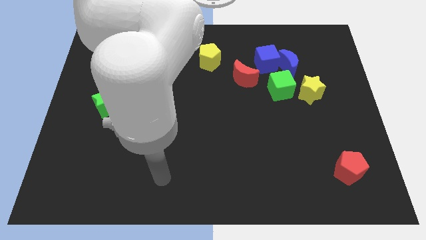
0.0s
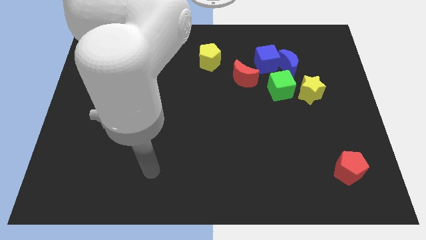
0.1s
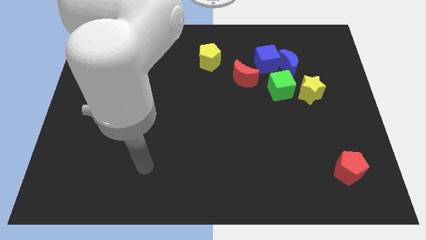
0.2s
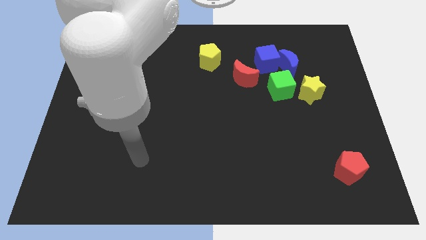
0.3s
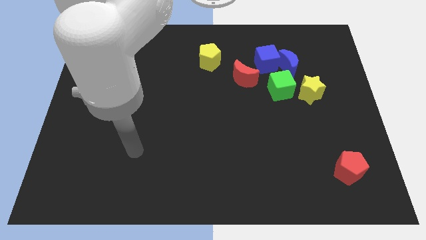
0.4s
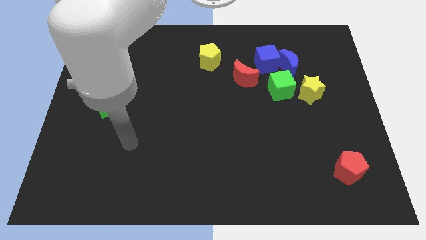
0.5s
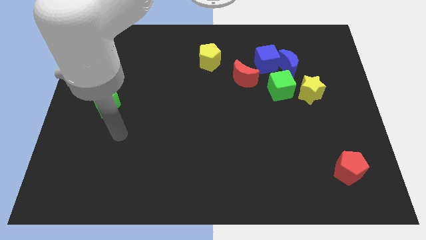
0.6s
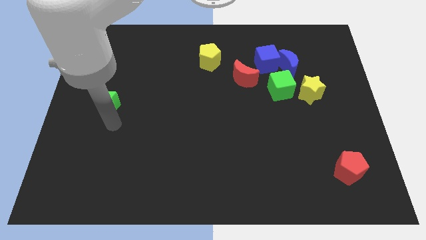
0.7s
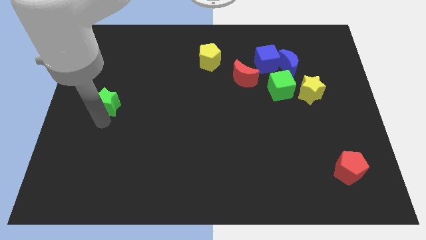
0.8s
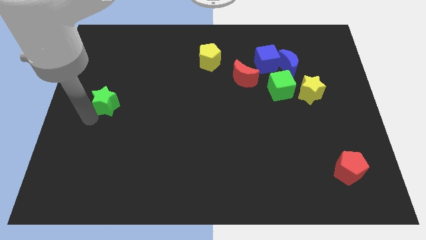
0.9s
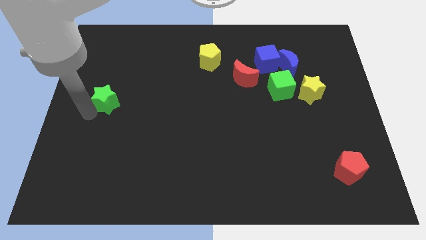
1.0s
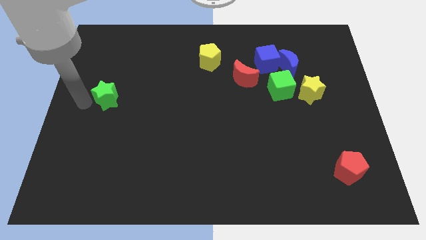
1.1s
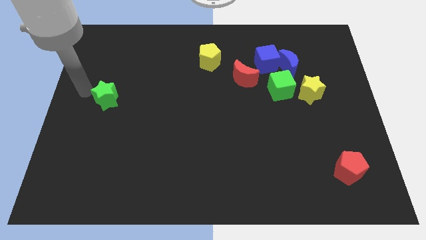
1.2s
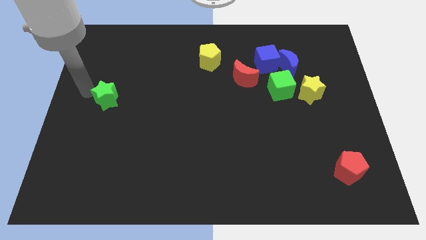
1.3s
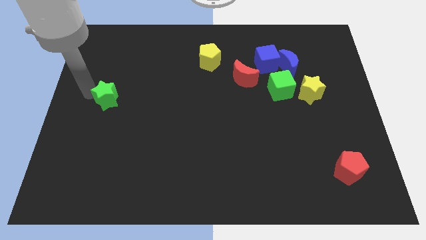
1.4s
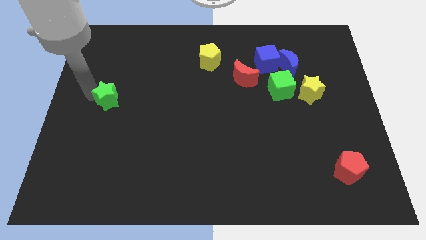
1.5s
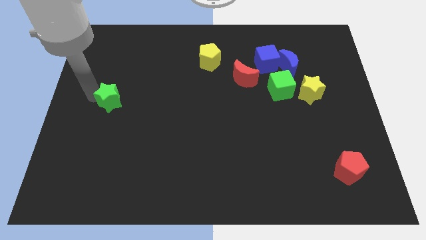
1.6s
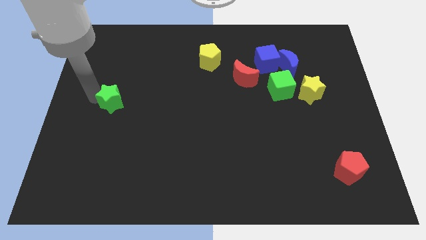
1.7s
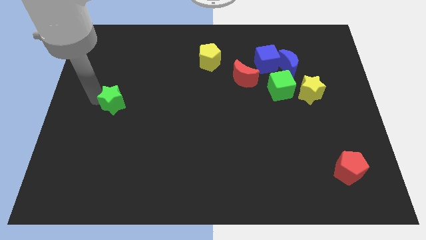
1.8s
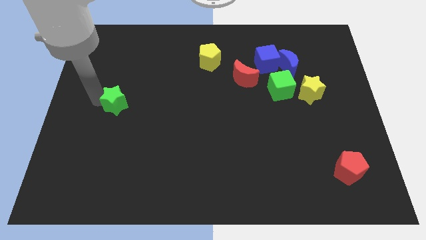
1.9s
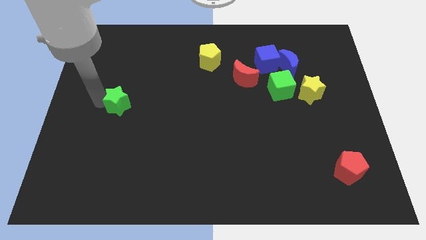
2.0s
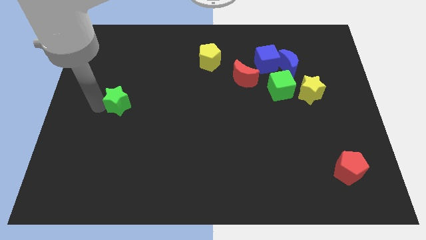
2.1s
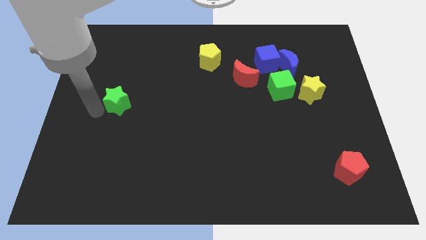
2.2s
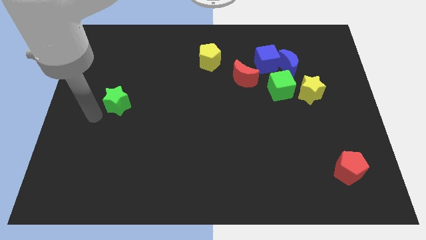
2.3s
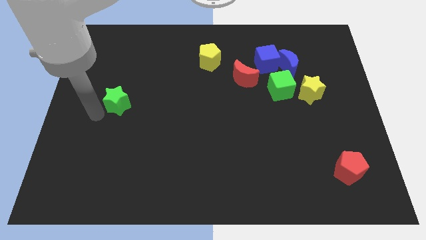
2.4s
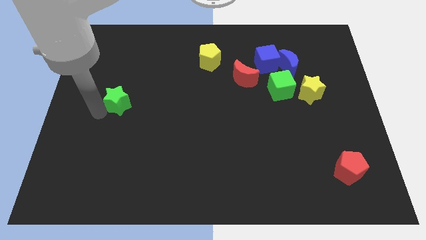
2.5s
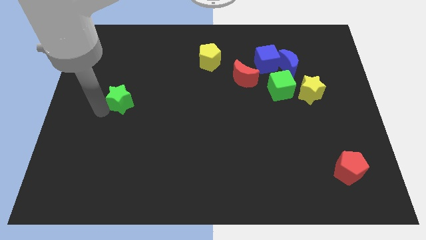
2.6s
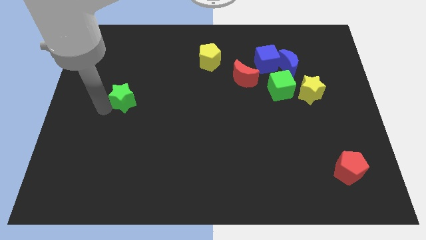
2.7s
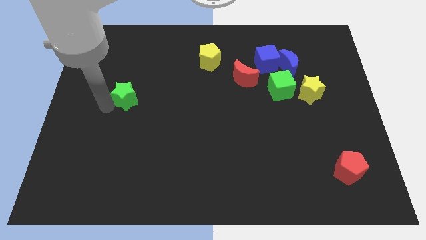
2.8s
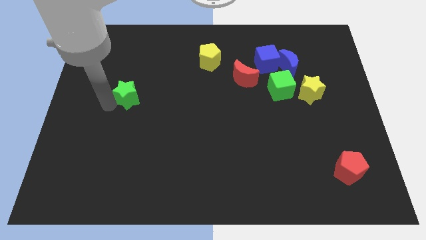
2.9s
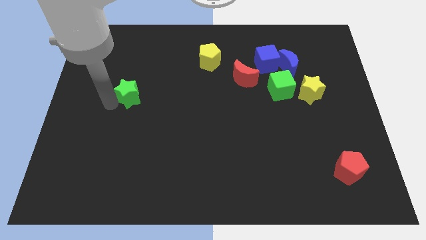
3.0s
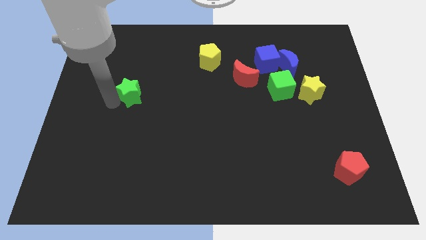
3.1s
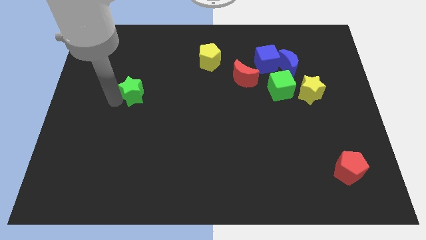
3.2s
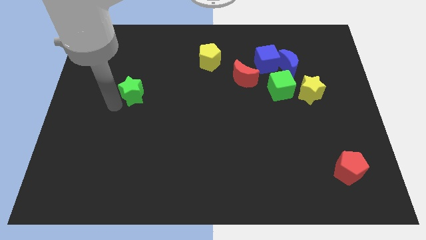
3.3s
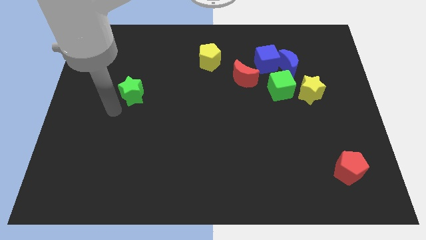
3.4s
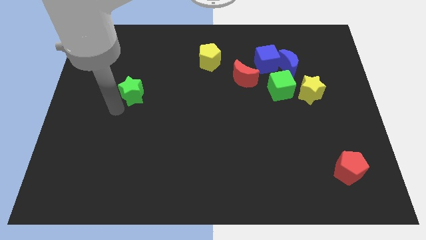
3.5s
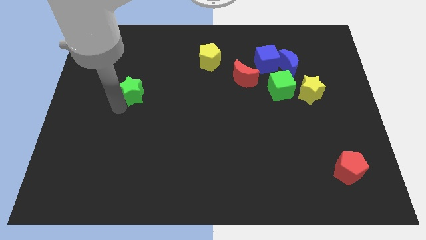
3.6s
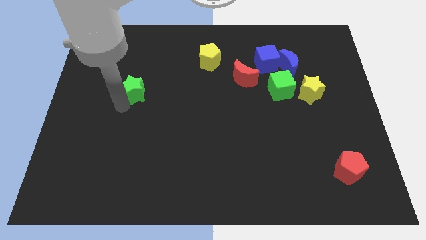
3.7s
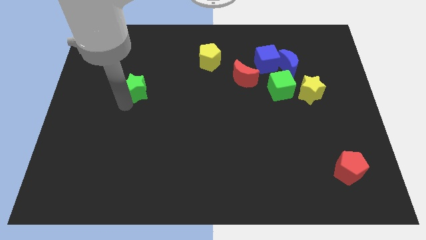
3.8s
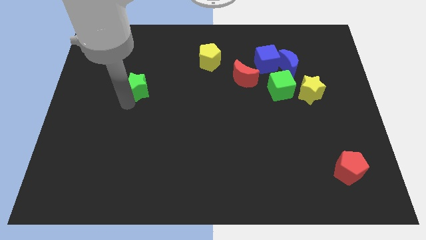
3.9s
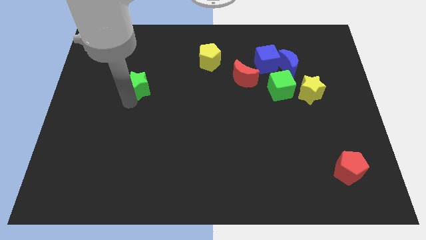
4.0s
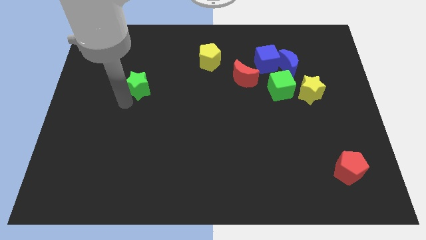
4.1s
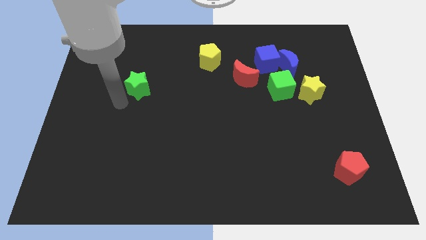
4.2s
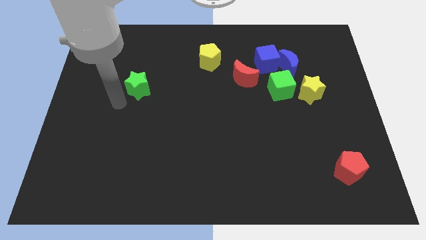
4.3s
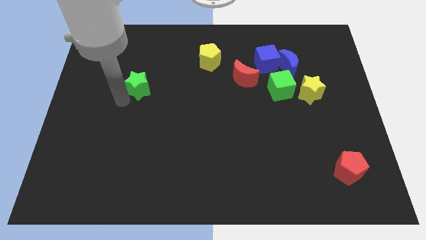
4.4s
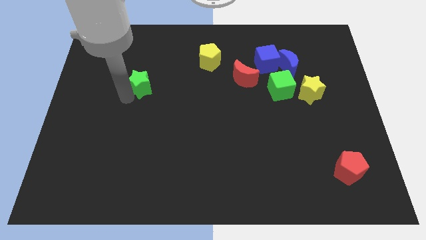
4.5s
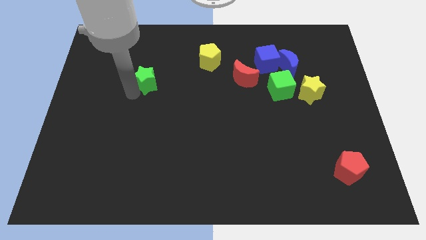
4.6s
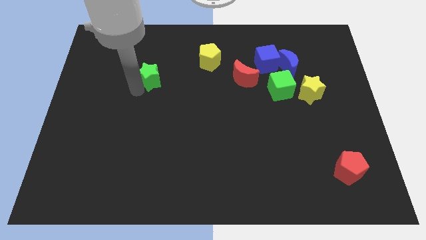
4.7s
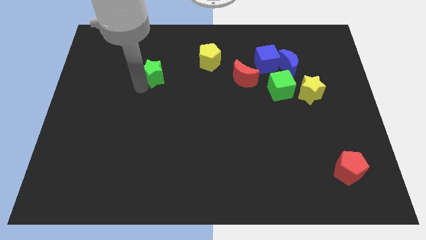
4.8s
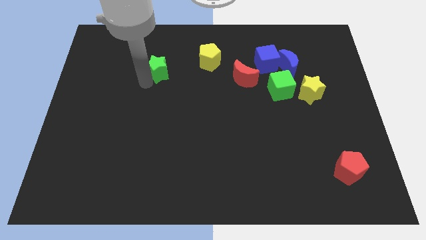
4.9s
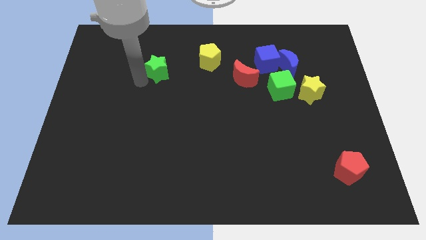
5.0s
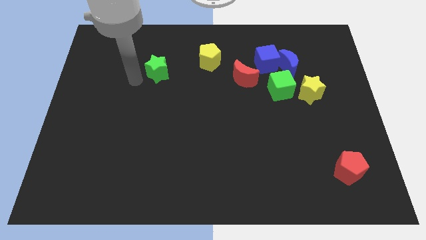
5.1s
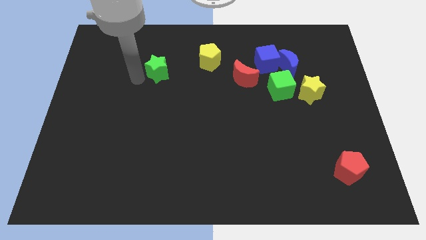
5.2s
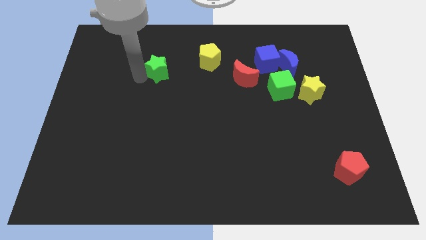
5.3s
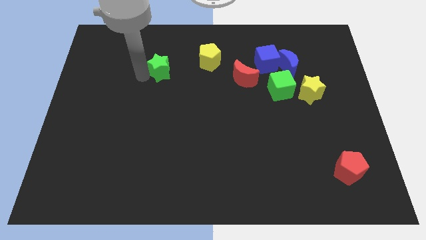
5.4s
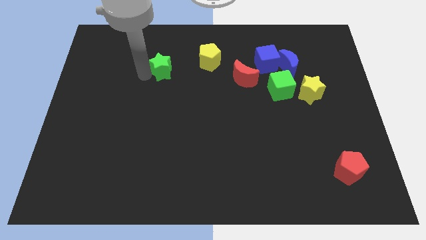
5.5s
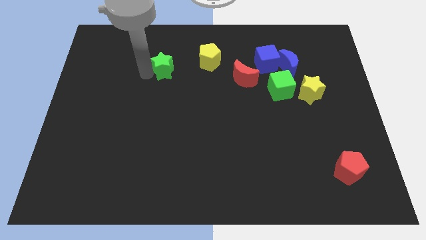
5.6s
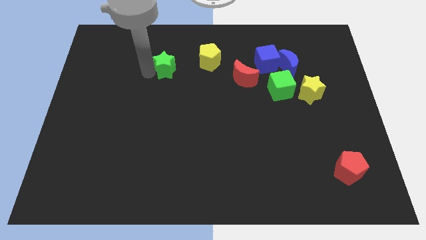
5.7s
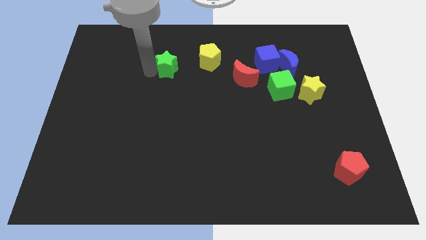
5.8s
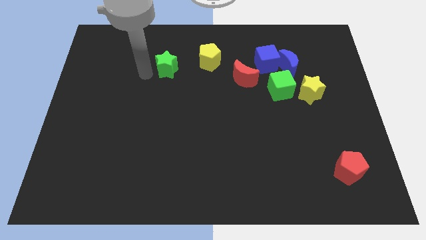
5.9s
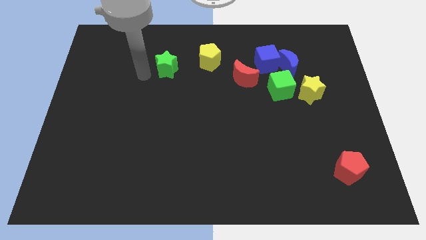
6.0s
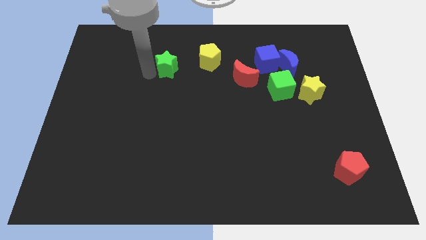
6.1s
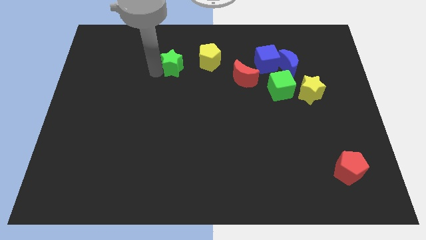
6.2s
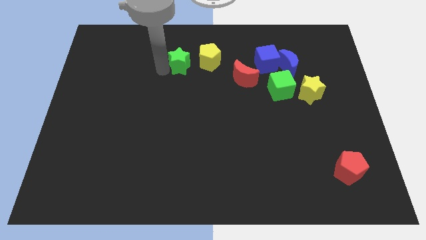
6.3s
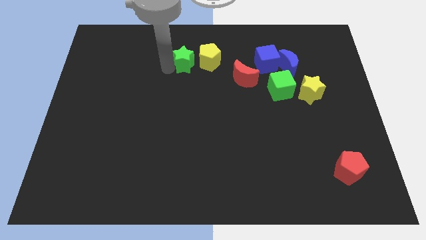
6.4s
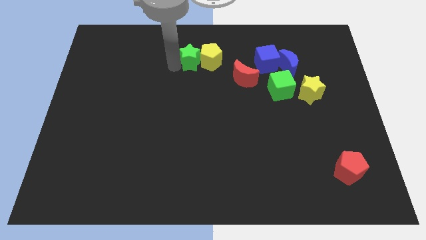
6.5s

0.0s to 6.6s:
move the green star close to the yellow pentagon

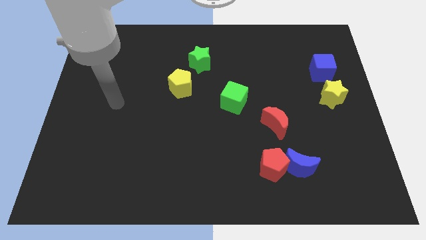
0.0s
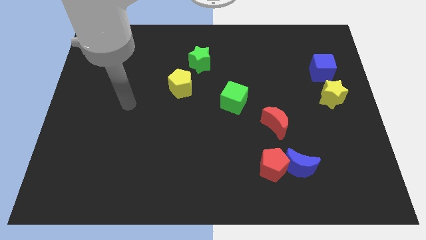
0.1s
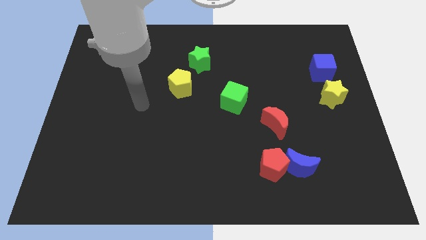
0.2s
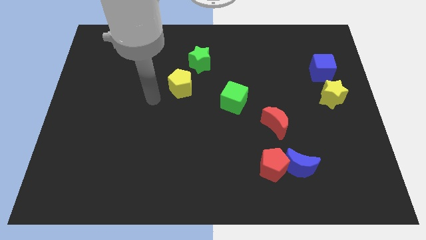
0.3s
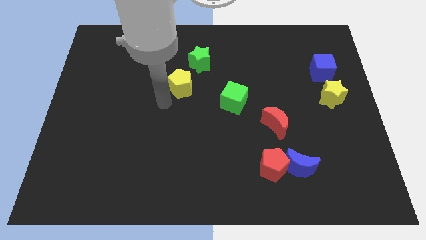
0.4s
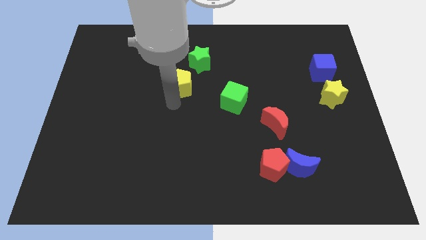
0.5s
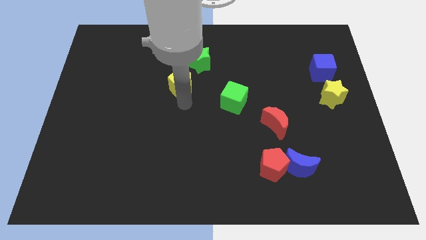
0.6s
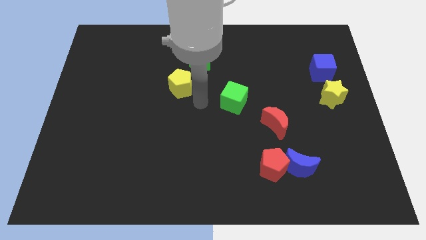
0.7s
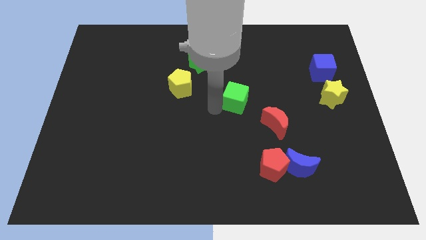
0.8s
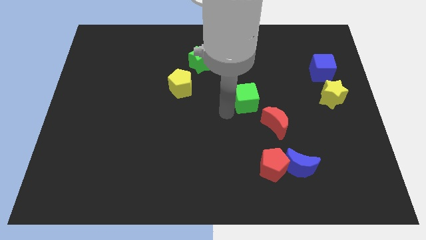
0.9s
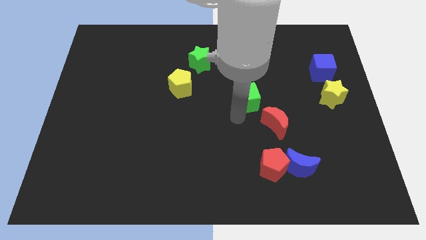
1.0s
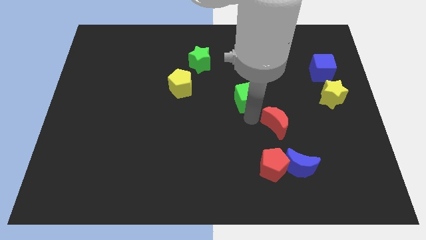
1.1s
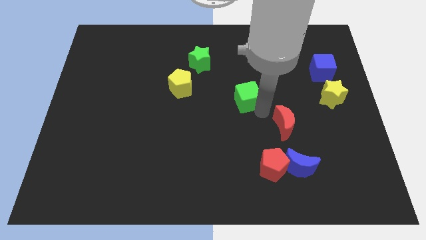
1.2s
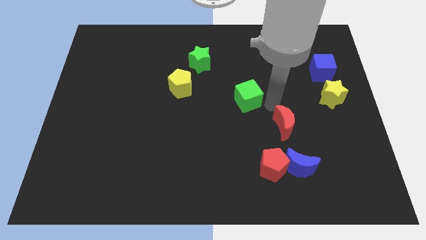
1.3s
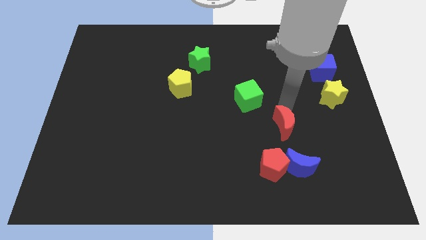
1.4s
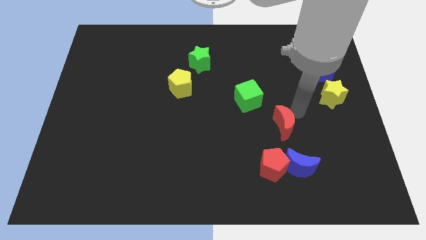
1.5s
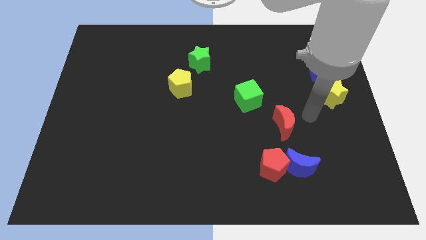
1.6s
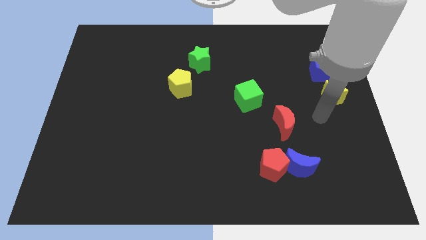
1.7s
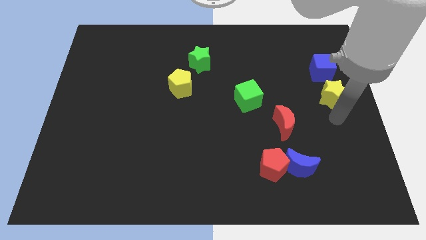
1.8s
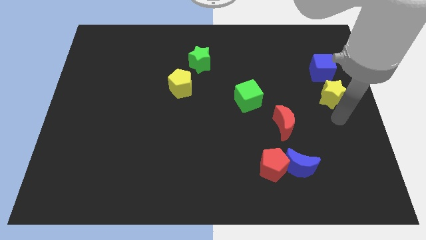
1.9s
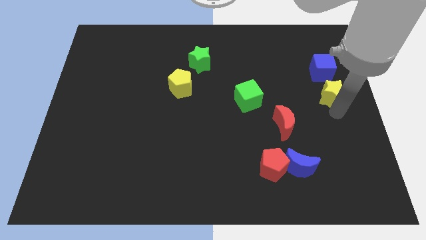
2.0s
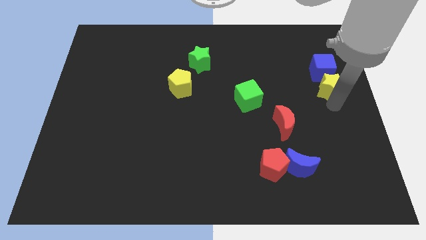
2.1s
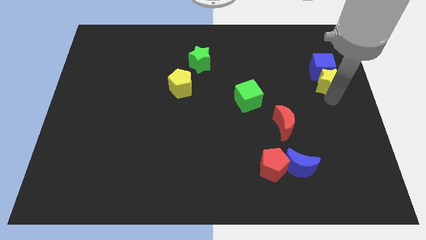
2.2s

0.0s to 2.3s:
move the yellow star towards the blue cube
